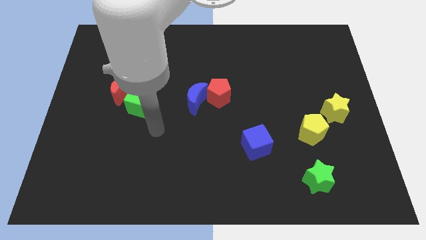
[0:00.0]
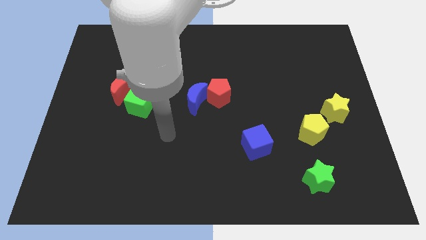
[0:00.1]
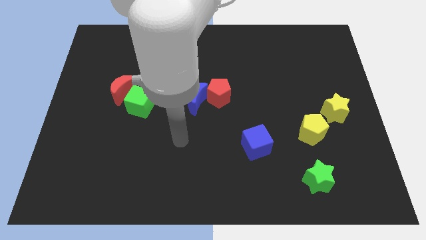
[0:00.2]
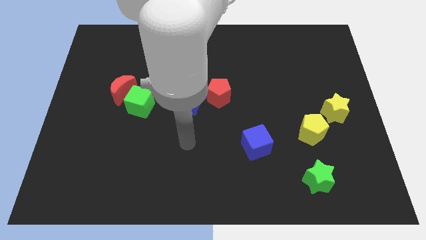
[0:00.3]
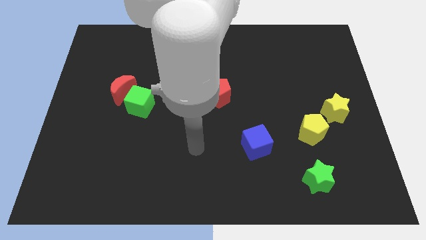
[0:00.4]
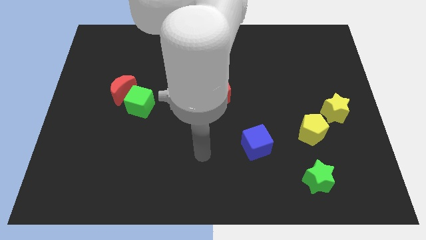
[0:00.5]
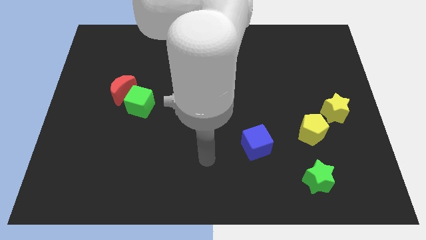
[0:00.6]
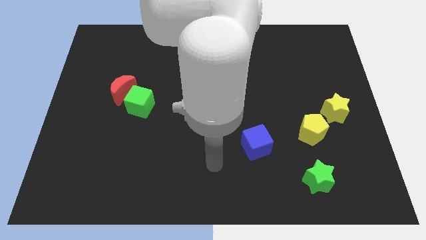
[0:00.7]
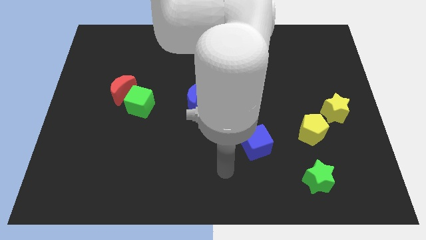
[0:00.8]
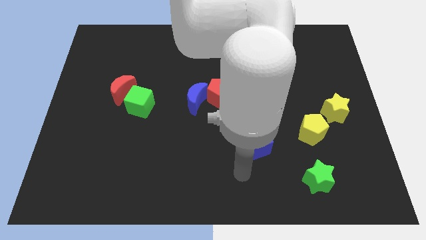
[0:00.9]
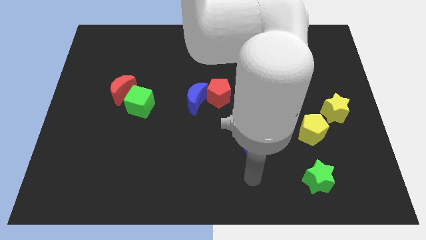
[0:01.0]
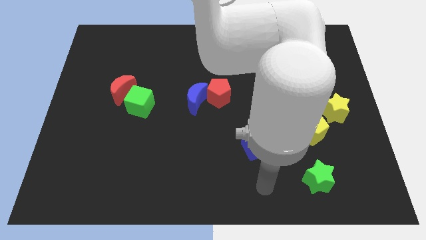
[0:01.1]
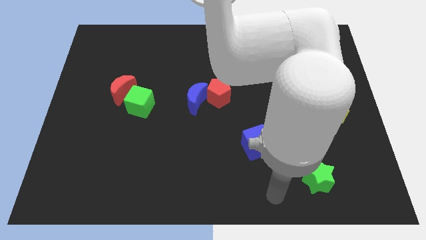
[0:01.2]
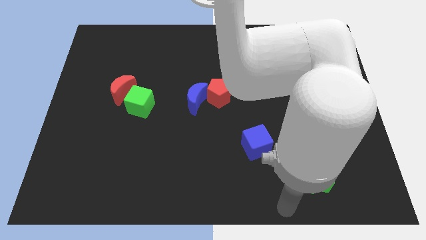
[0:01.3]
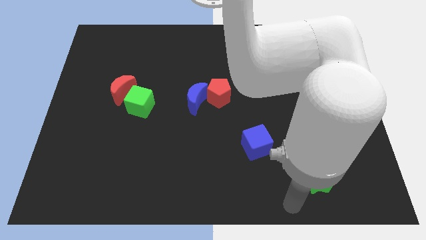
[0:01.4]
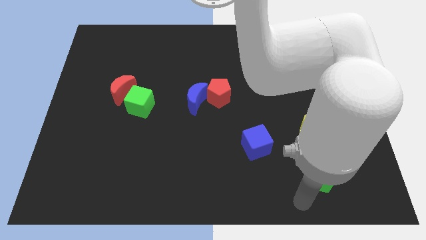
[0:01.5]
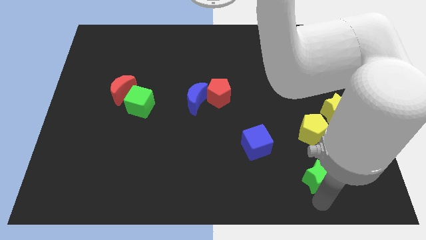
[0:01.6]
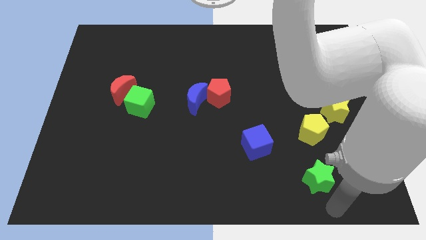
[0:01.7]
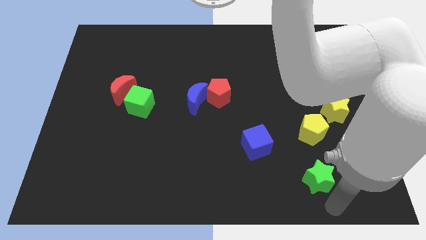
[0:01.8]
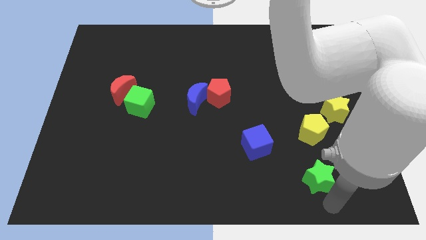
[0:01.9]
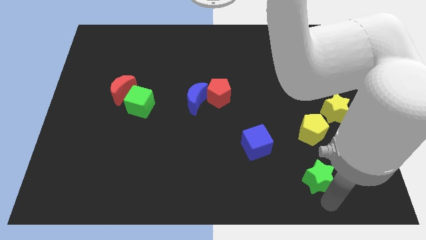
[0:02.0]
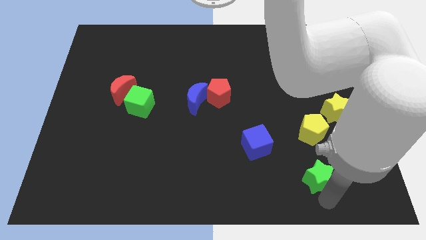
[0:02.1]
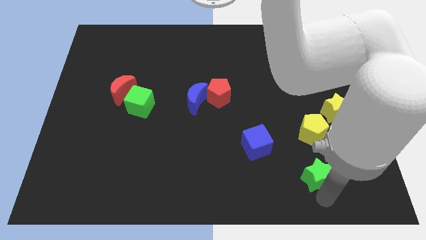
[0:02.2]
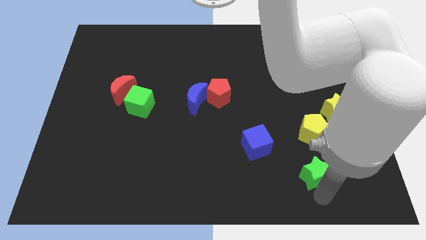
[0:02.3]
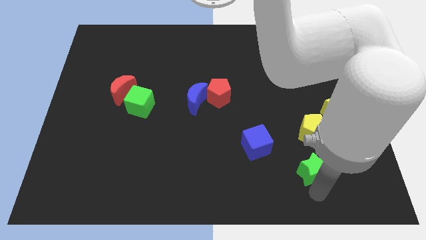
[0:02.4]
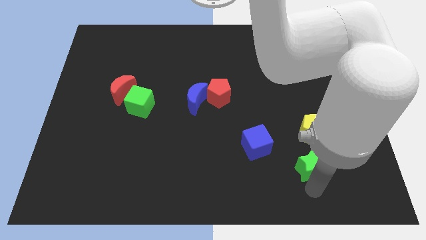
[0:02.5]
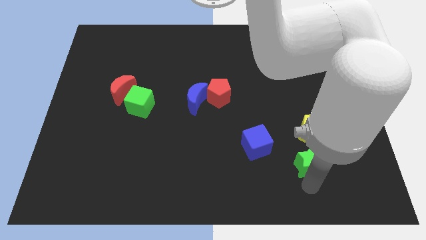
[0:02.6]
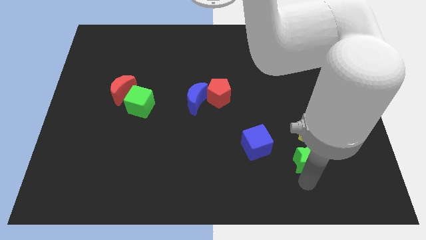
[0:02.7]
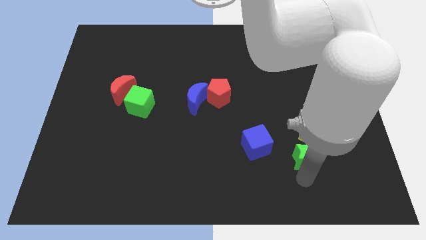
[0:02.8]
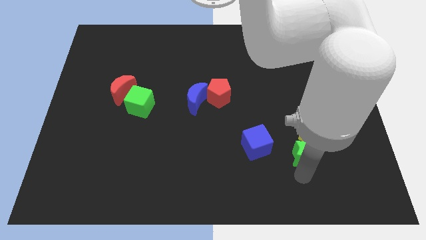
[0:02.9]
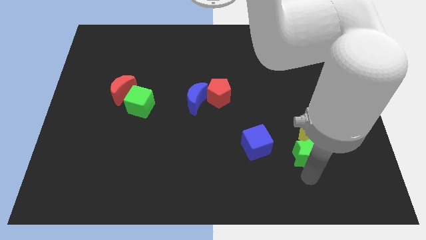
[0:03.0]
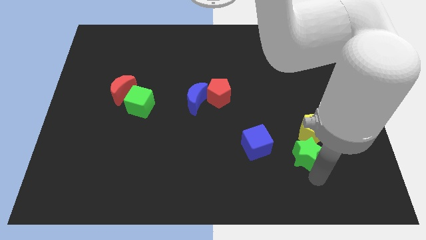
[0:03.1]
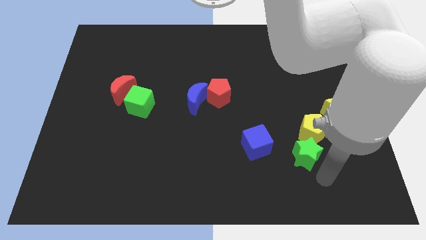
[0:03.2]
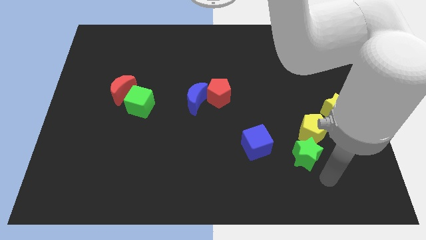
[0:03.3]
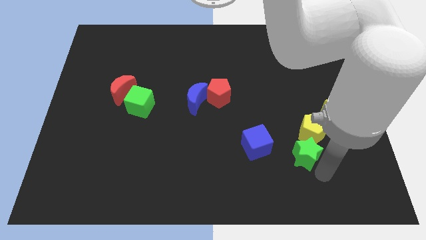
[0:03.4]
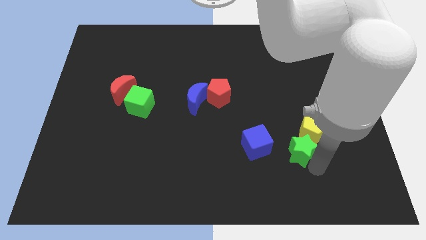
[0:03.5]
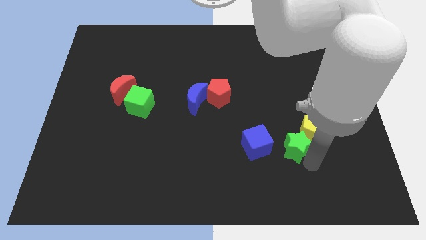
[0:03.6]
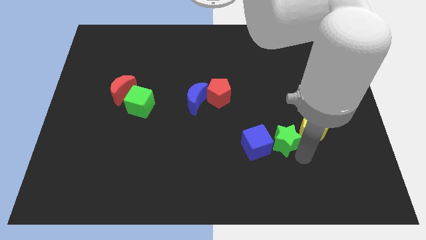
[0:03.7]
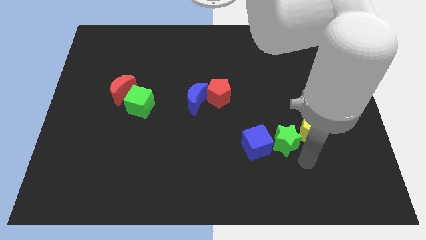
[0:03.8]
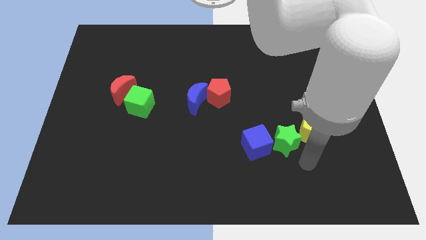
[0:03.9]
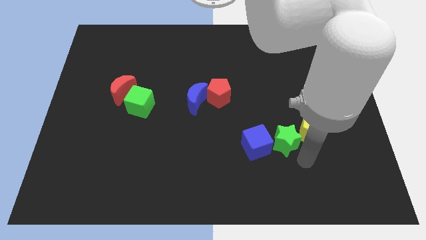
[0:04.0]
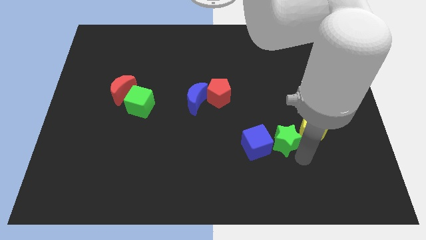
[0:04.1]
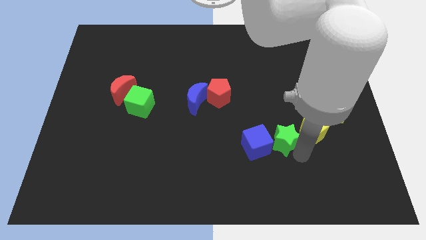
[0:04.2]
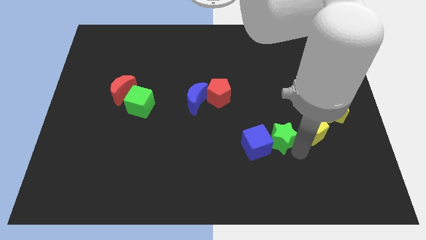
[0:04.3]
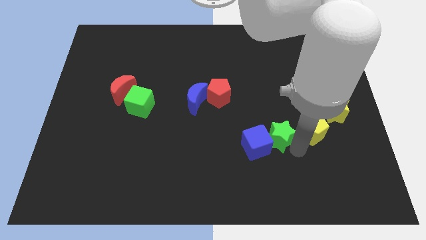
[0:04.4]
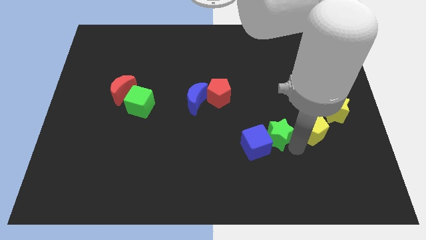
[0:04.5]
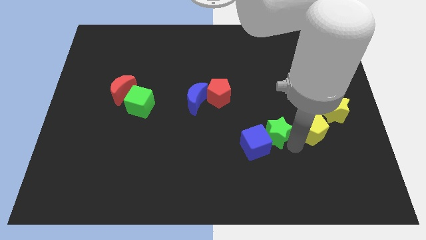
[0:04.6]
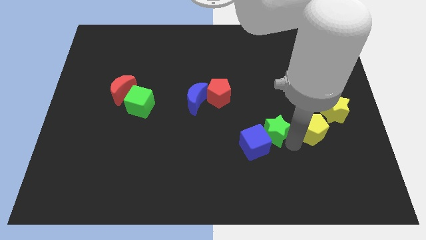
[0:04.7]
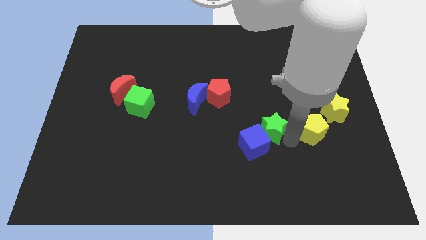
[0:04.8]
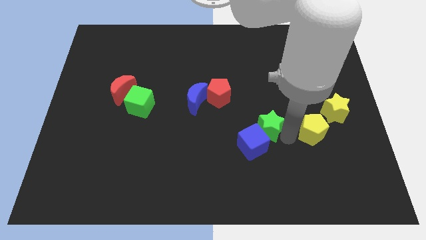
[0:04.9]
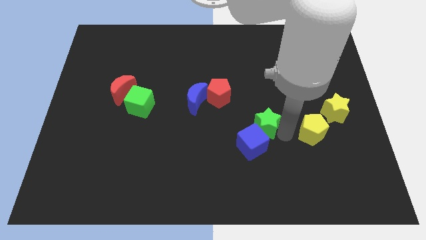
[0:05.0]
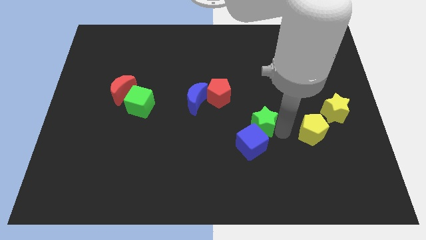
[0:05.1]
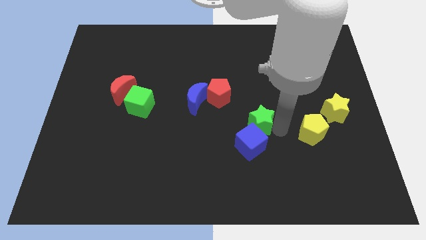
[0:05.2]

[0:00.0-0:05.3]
slide the green star diagonally down and to the right of the red pentagon

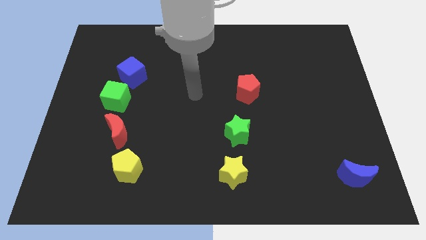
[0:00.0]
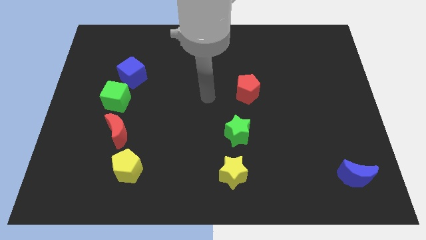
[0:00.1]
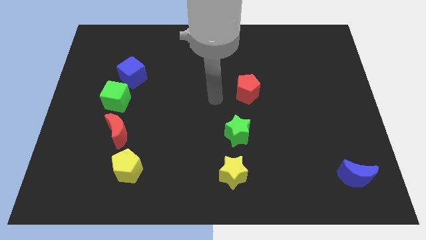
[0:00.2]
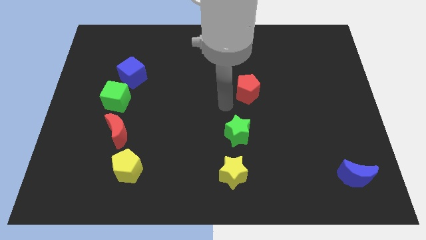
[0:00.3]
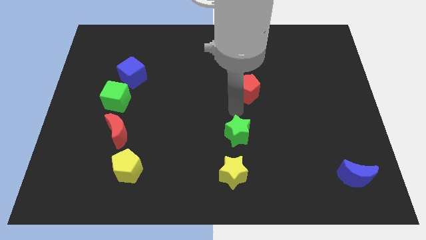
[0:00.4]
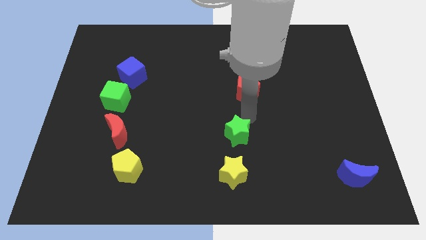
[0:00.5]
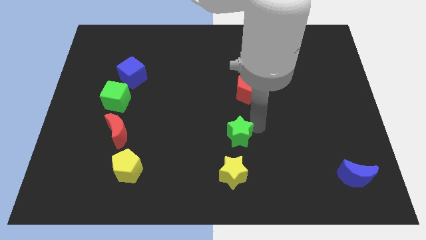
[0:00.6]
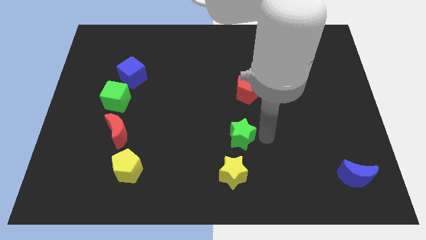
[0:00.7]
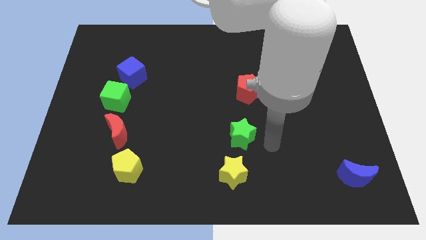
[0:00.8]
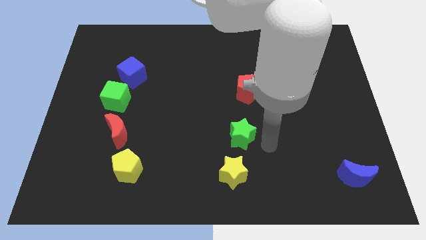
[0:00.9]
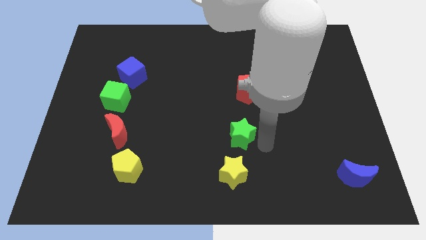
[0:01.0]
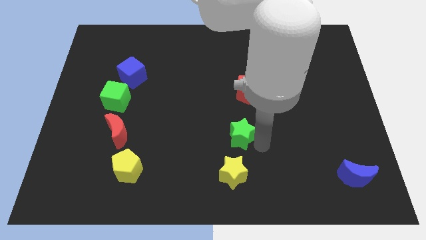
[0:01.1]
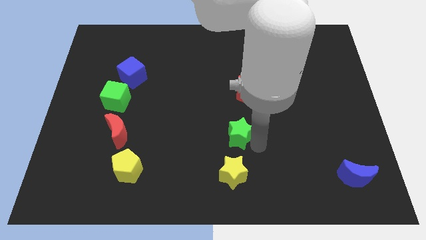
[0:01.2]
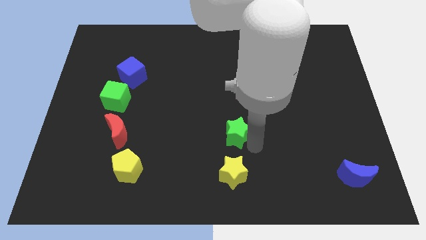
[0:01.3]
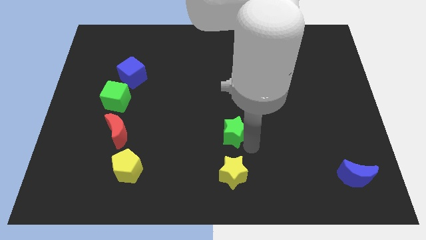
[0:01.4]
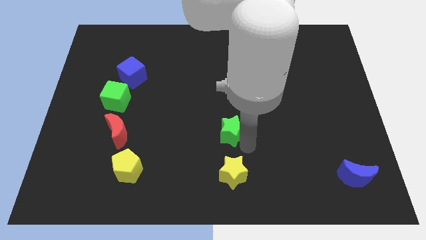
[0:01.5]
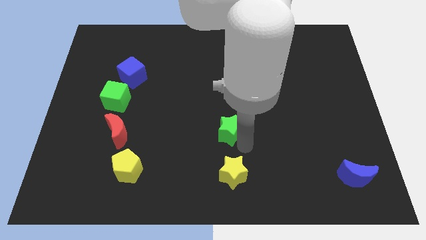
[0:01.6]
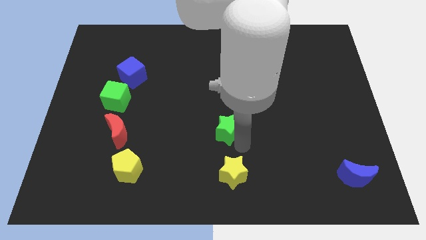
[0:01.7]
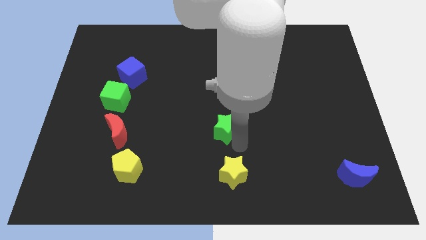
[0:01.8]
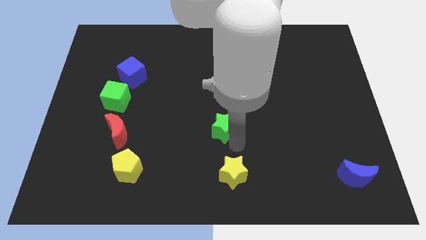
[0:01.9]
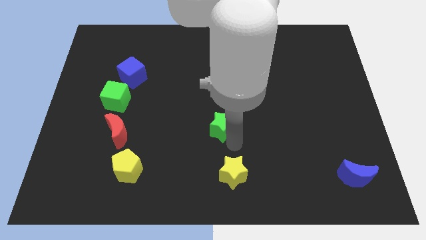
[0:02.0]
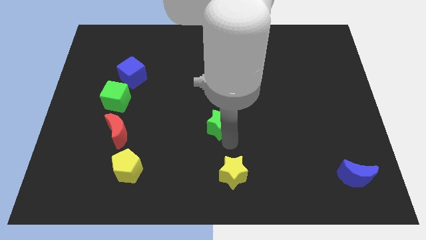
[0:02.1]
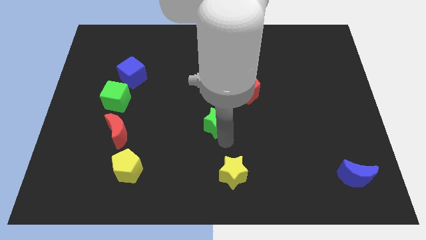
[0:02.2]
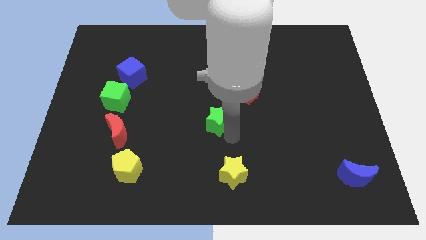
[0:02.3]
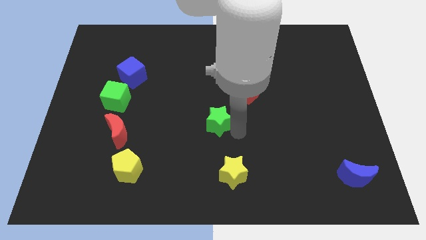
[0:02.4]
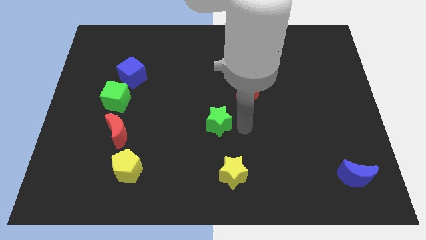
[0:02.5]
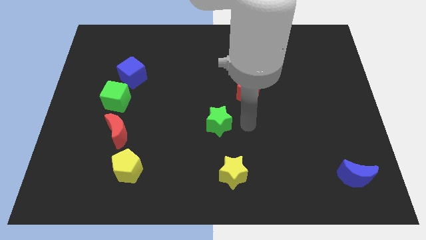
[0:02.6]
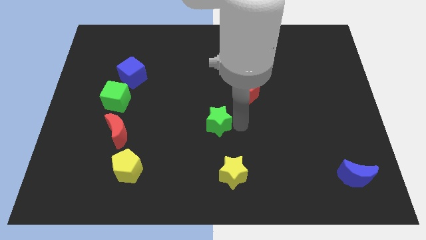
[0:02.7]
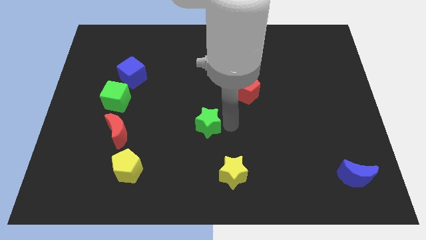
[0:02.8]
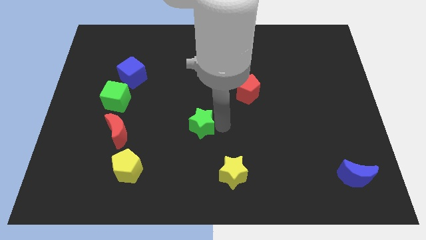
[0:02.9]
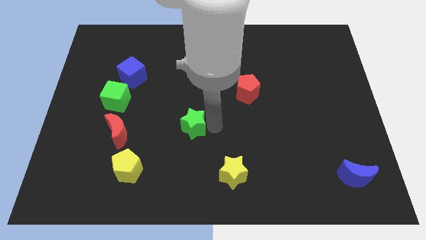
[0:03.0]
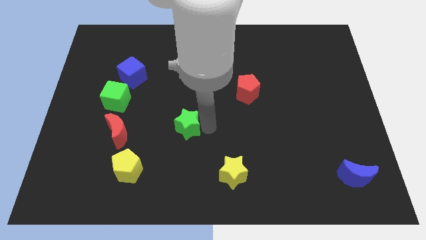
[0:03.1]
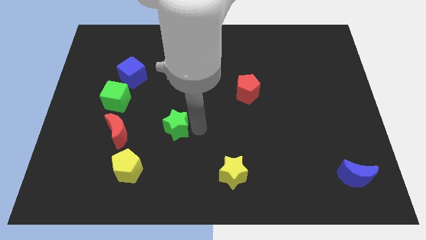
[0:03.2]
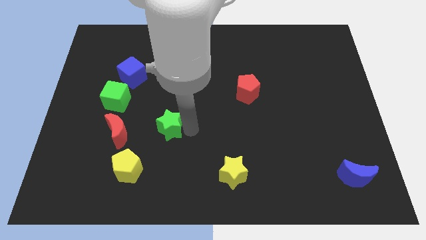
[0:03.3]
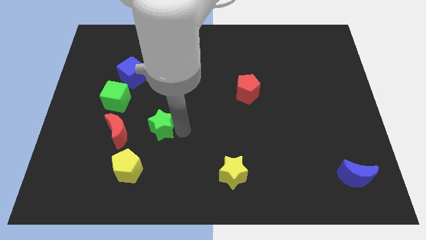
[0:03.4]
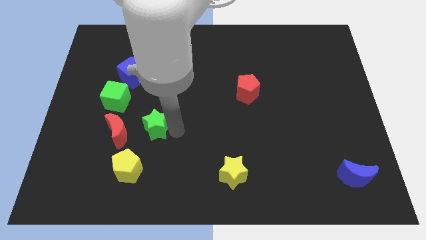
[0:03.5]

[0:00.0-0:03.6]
push the green star to the top of the yellow pentagon
